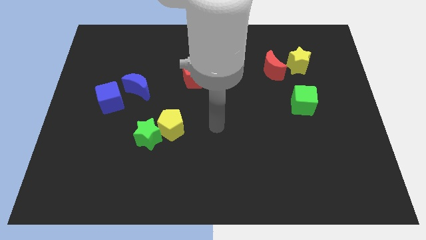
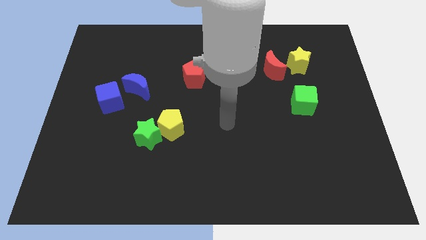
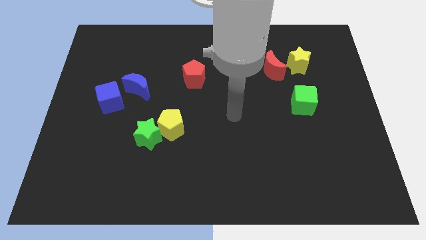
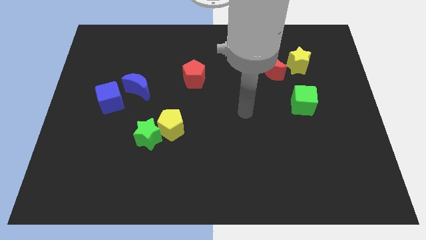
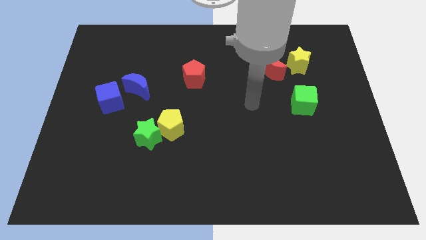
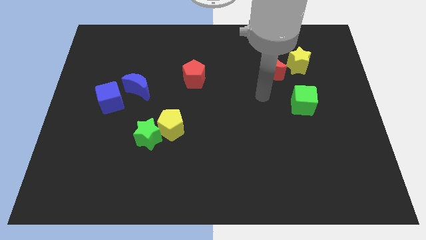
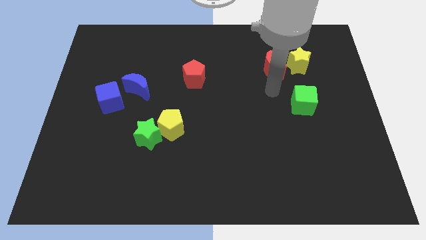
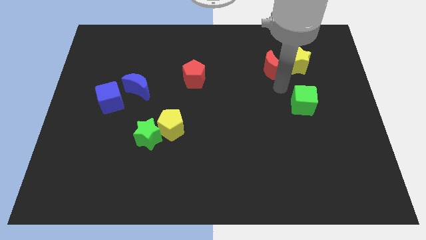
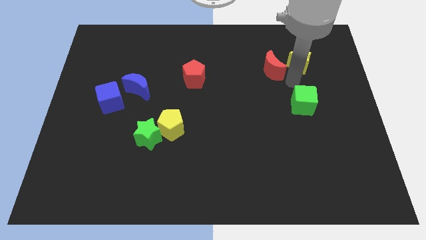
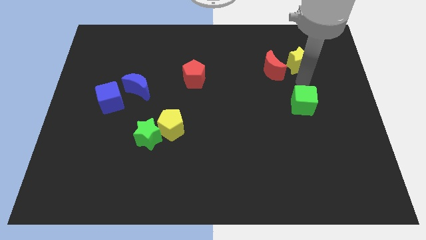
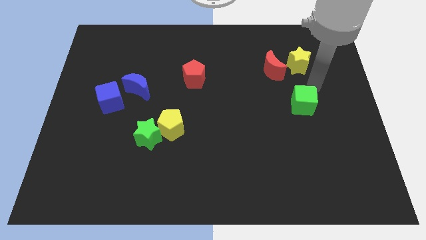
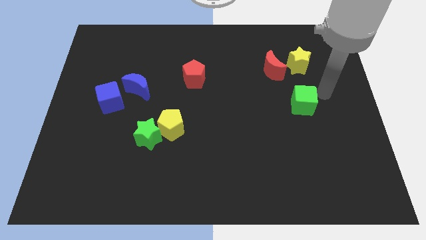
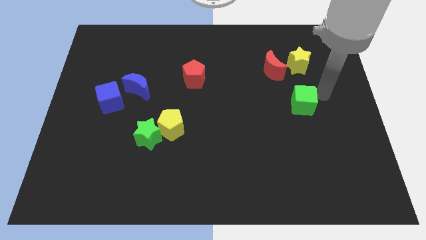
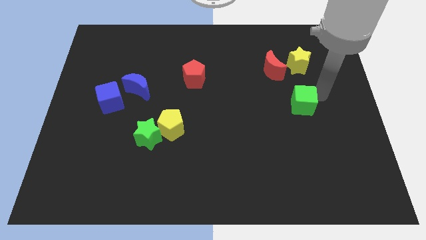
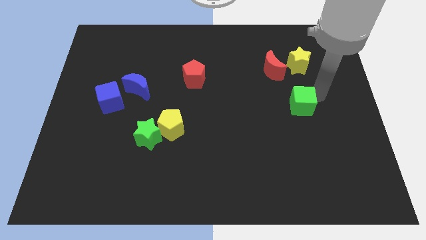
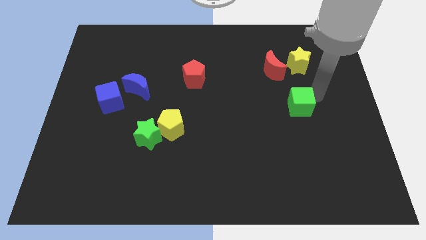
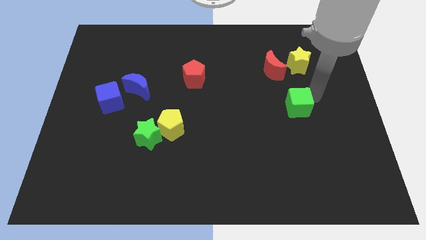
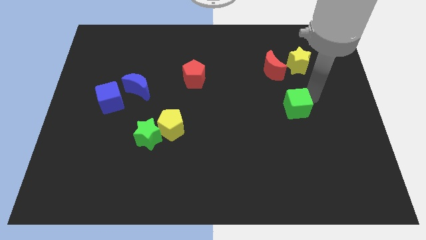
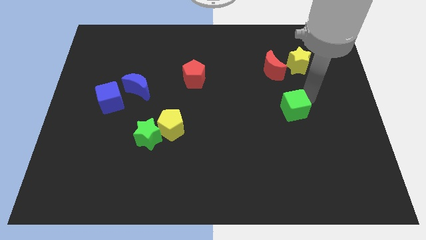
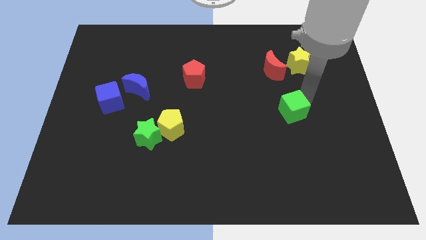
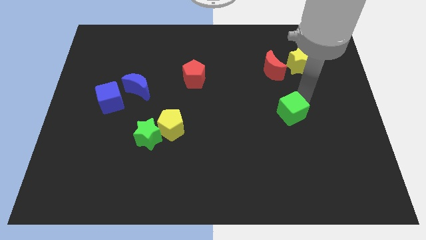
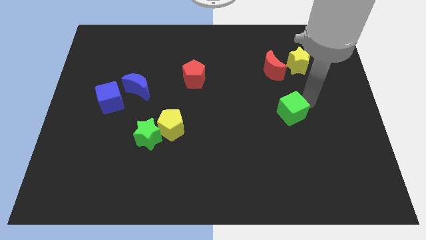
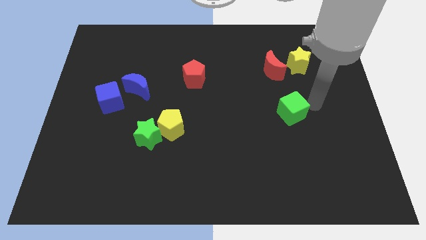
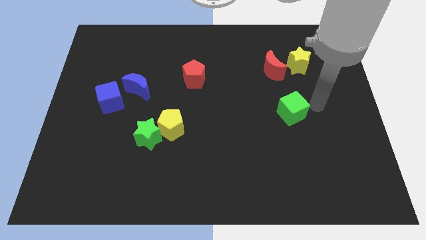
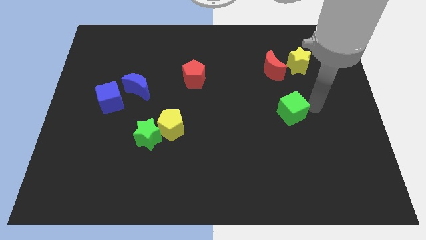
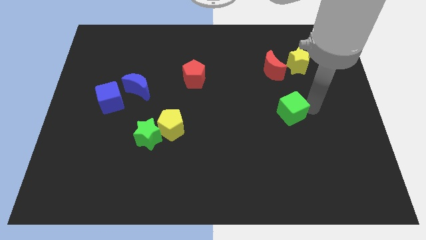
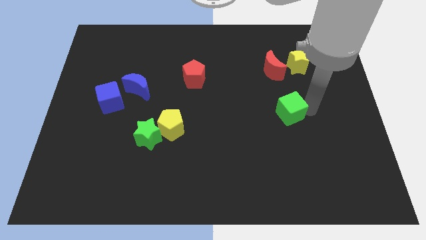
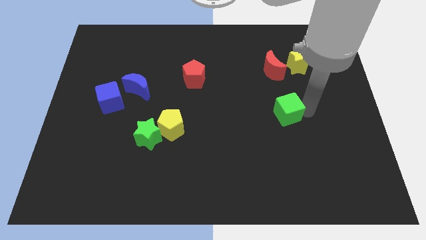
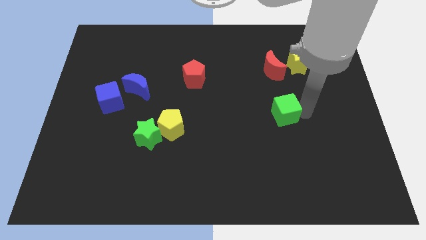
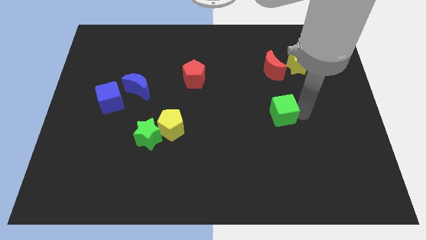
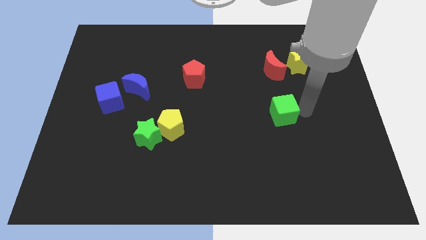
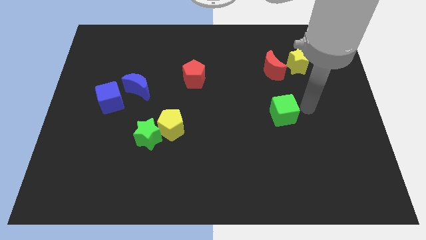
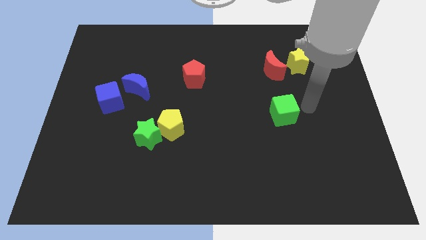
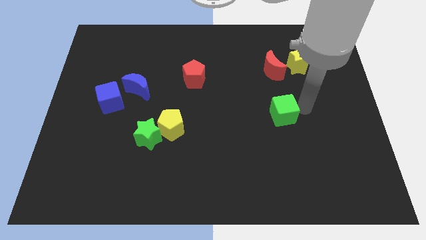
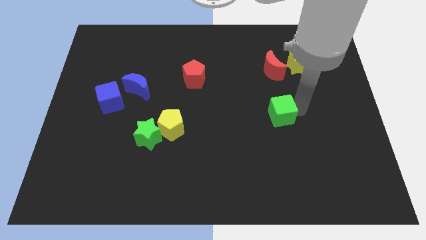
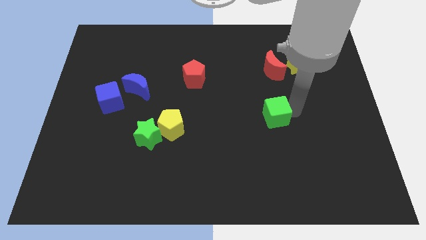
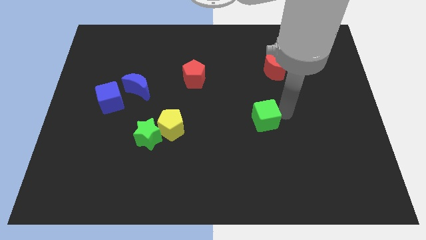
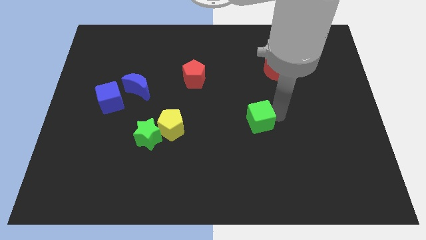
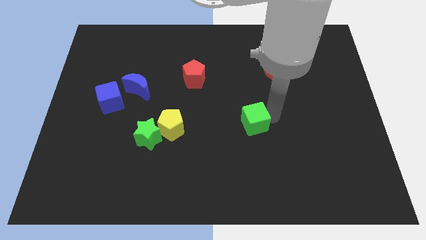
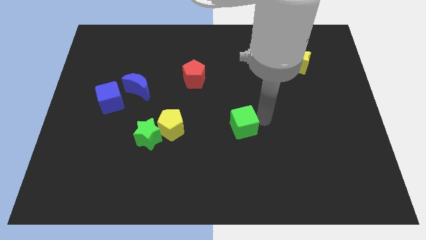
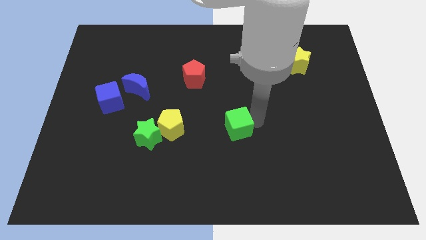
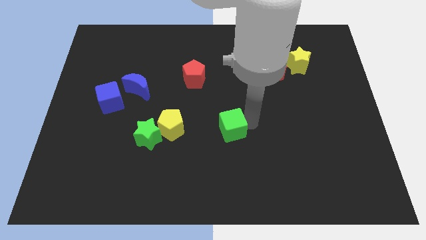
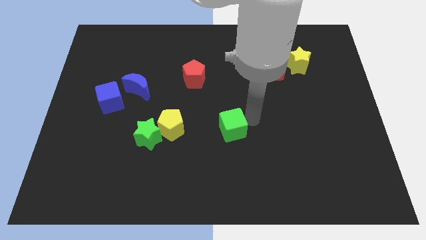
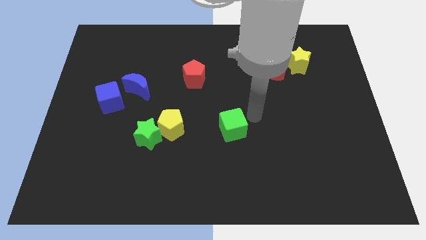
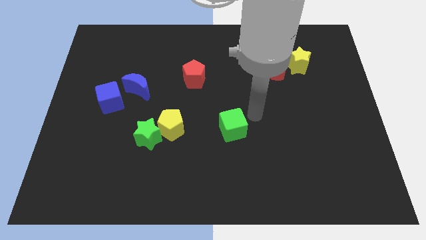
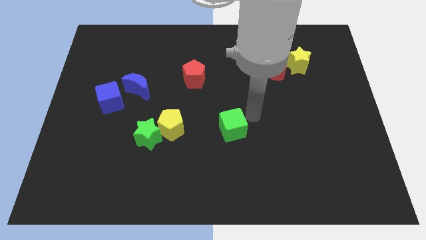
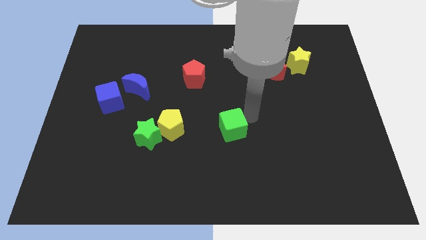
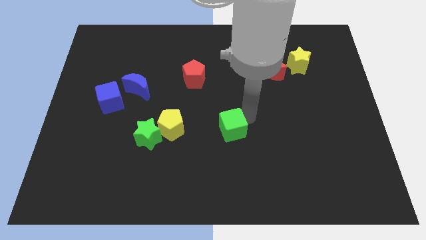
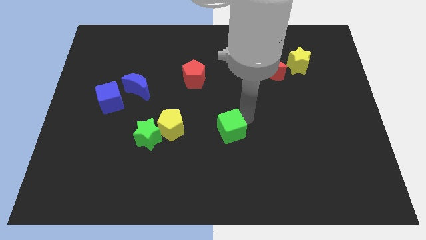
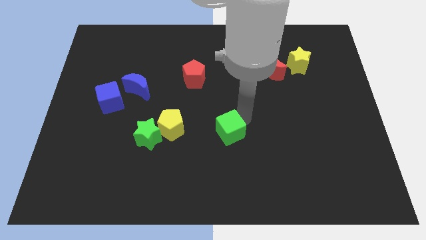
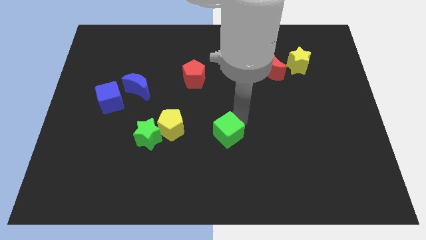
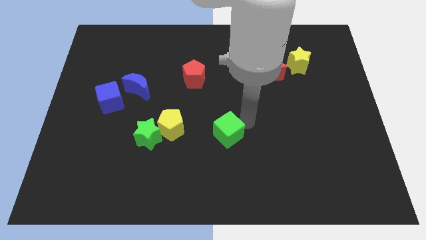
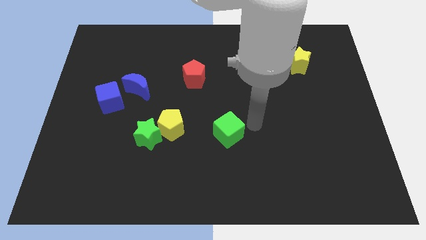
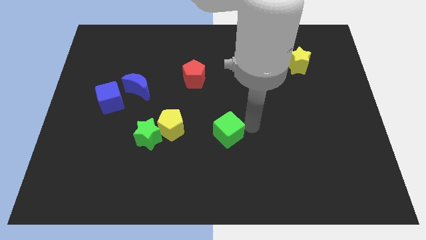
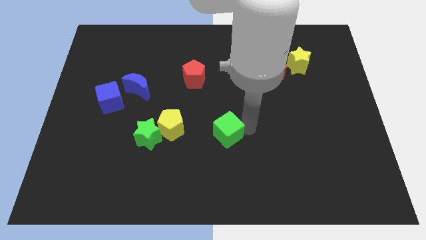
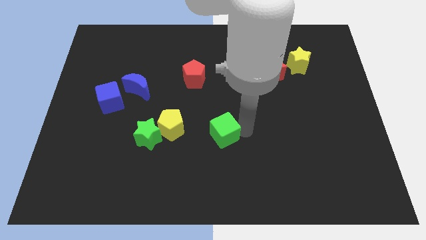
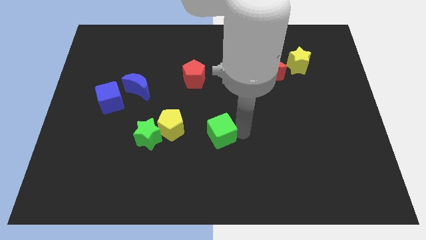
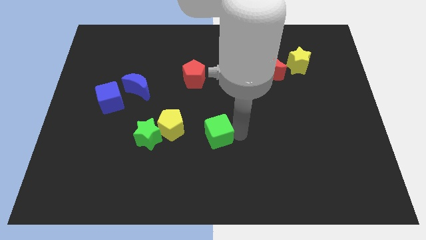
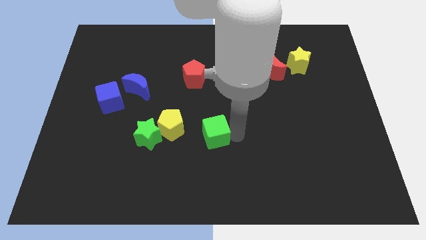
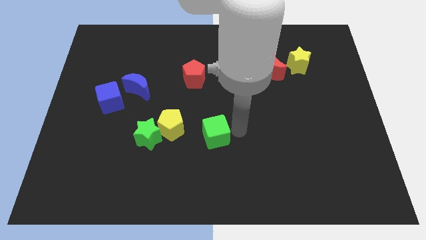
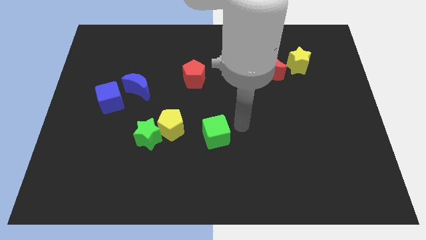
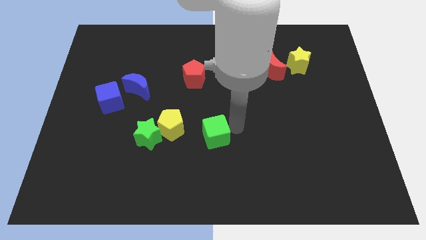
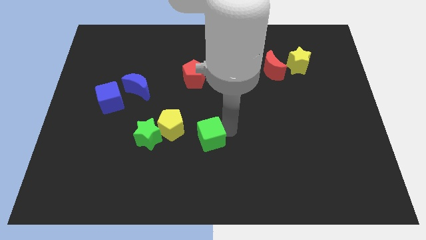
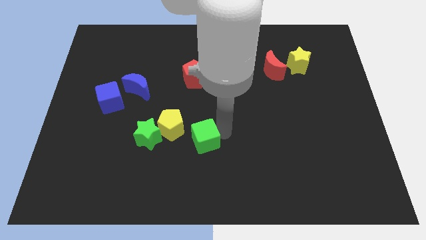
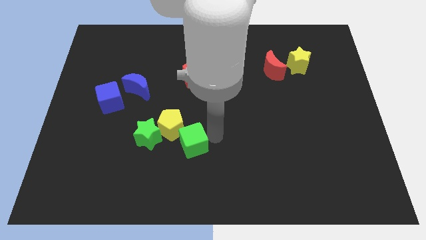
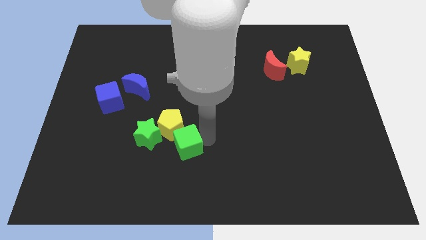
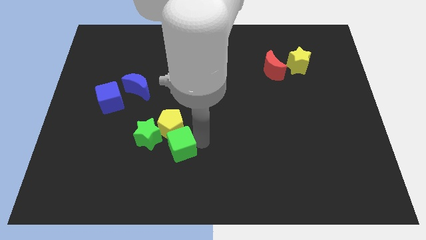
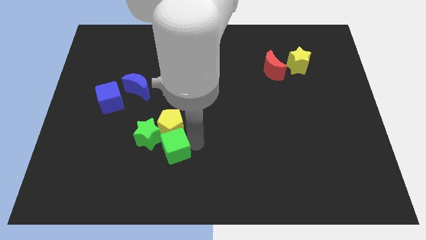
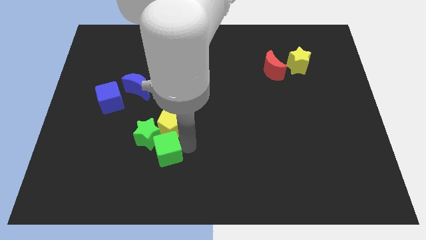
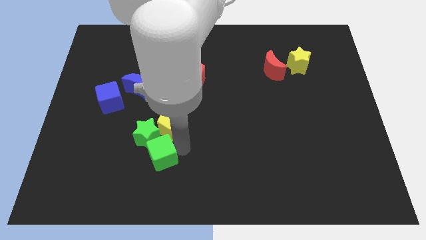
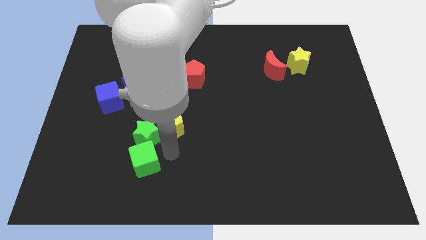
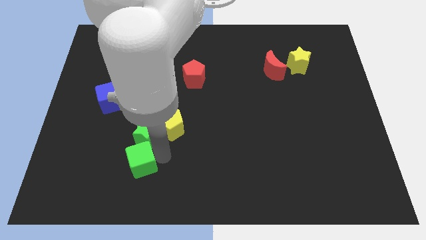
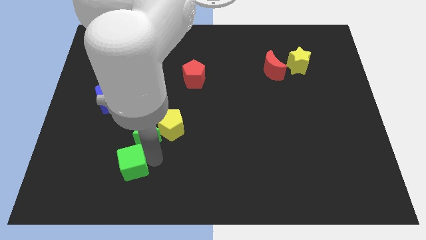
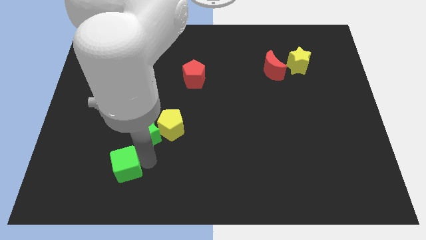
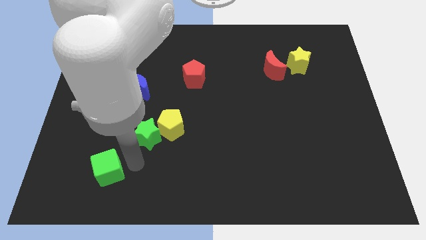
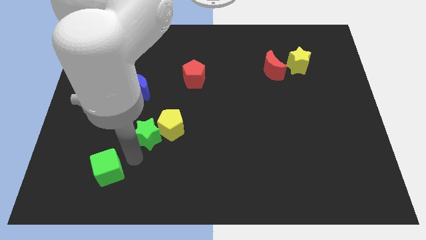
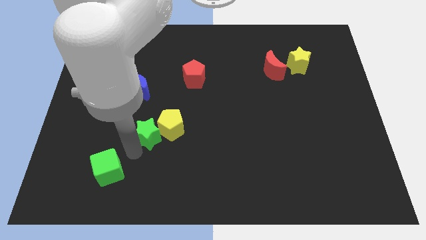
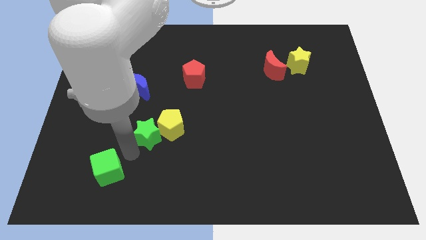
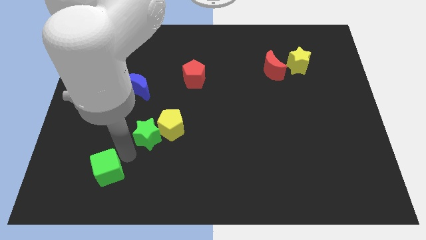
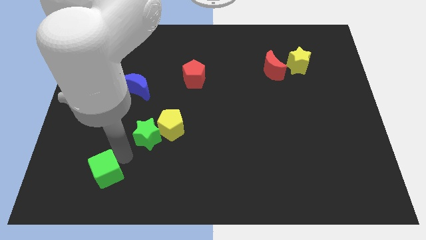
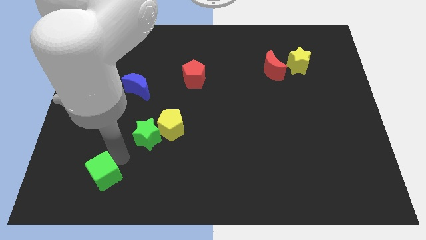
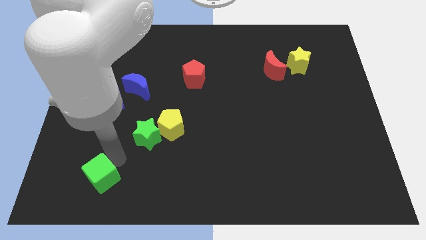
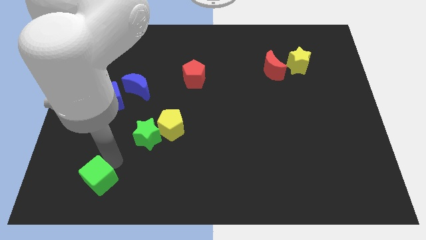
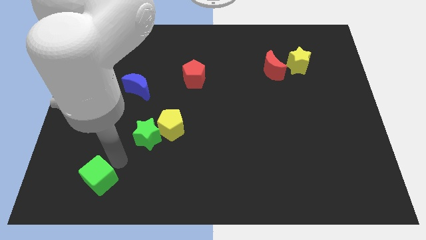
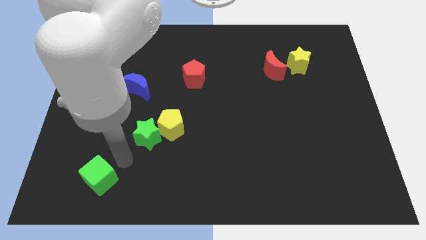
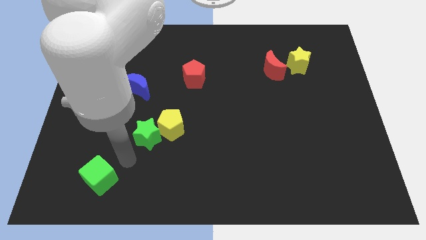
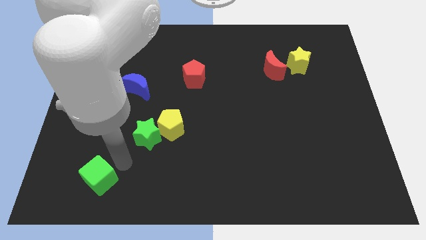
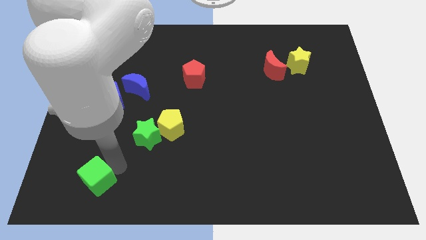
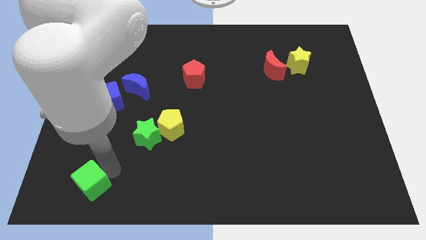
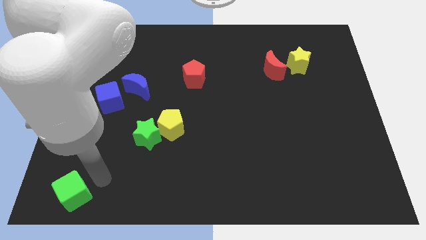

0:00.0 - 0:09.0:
move the green cube to the bottom left of the board
